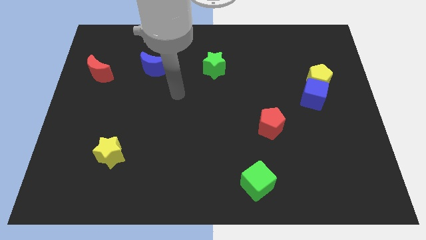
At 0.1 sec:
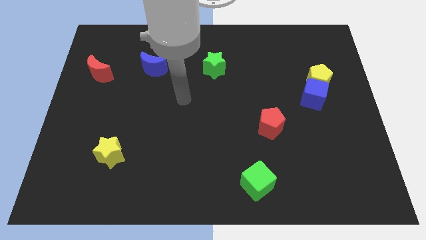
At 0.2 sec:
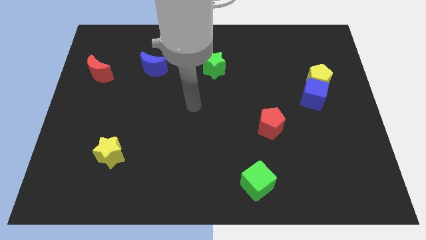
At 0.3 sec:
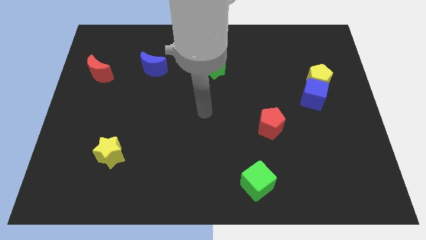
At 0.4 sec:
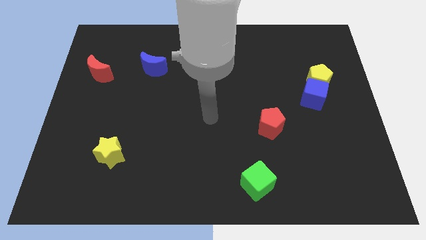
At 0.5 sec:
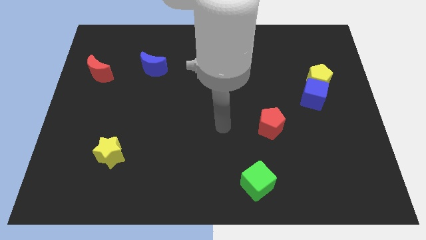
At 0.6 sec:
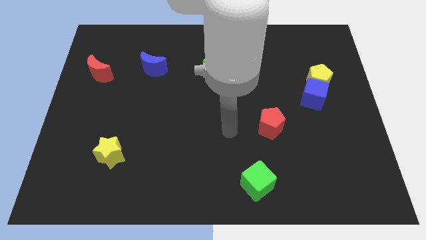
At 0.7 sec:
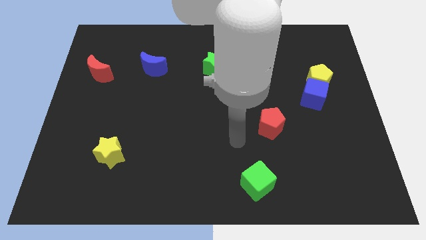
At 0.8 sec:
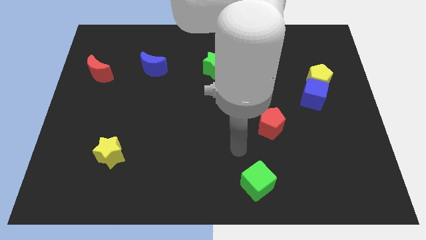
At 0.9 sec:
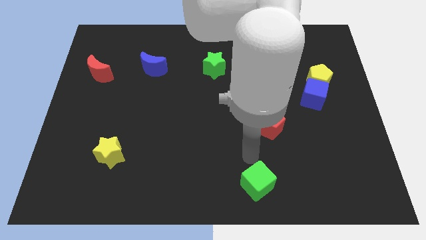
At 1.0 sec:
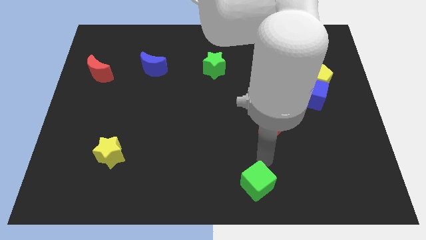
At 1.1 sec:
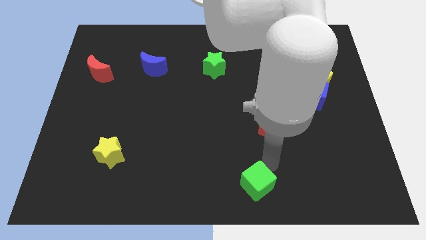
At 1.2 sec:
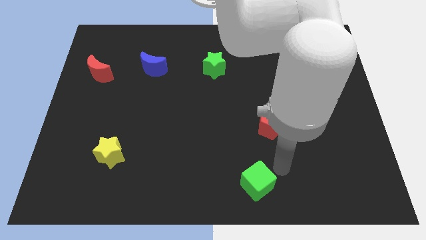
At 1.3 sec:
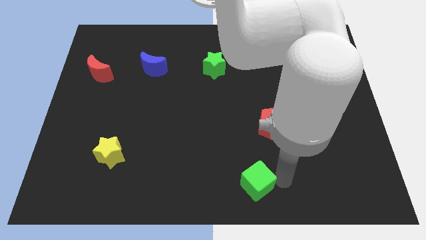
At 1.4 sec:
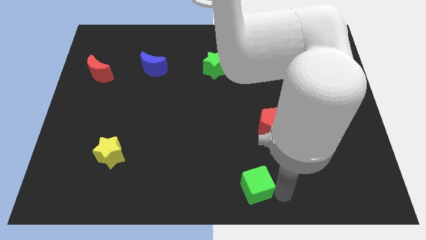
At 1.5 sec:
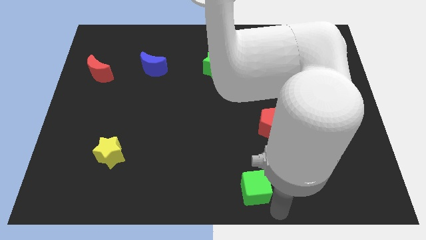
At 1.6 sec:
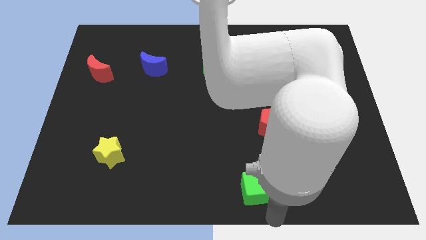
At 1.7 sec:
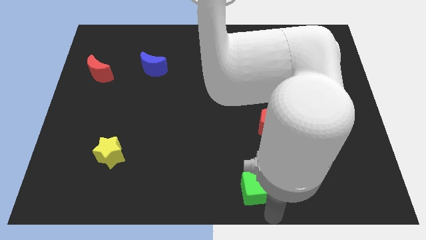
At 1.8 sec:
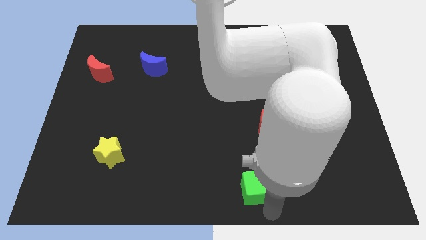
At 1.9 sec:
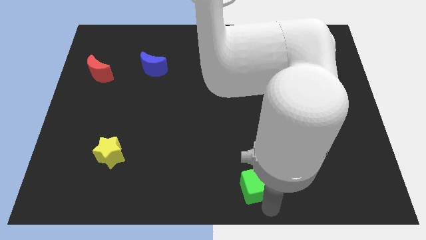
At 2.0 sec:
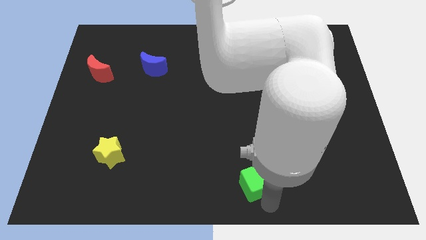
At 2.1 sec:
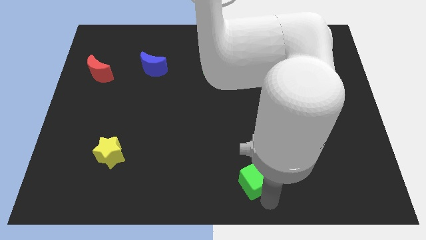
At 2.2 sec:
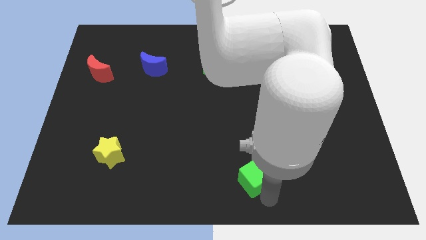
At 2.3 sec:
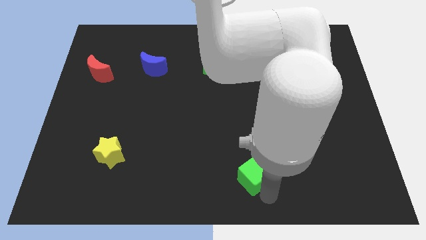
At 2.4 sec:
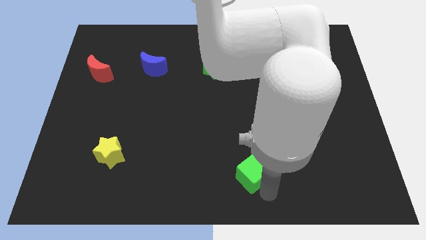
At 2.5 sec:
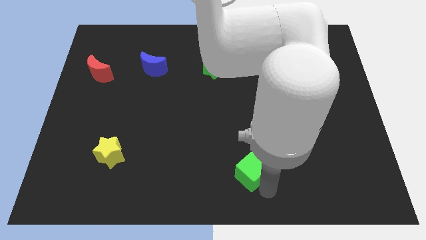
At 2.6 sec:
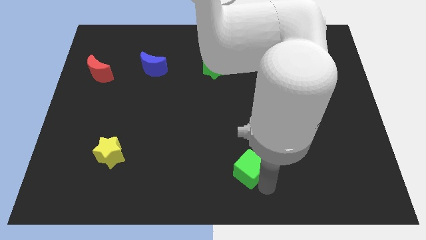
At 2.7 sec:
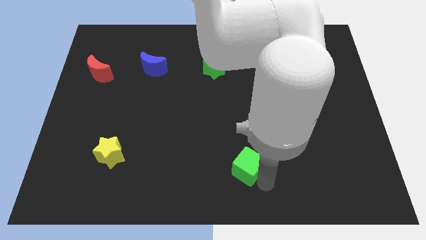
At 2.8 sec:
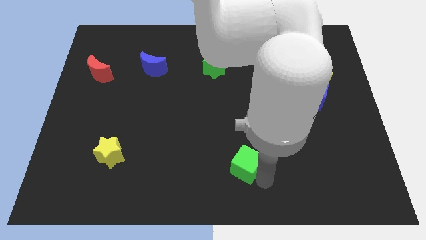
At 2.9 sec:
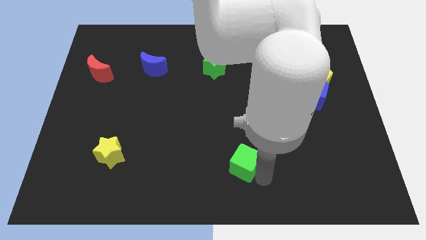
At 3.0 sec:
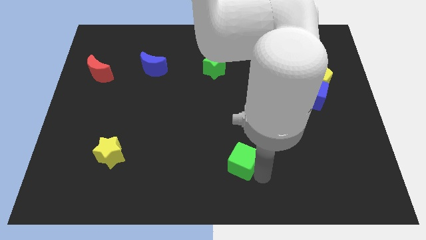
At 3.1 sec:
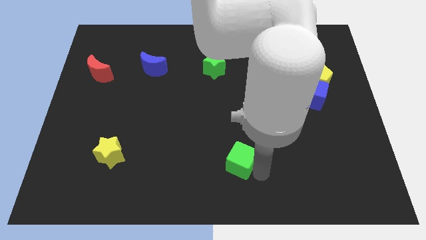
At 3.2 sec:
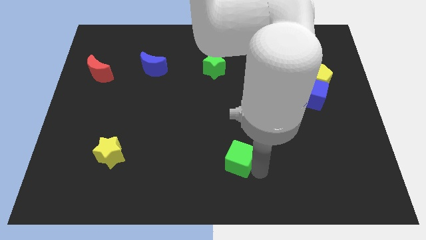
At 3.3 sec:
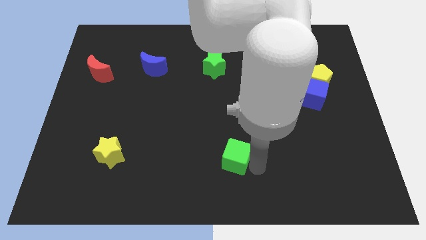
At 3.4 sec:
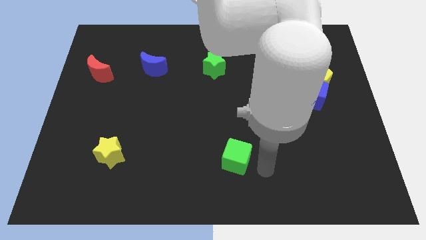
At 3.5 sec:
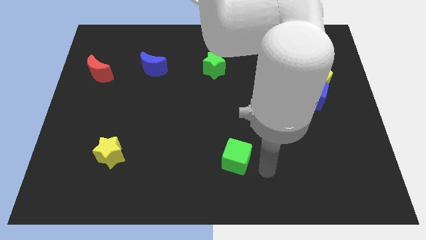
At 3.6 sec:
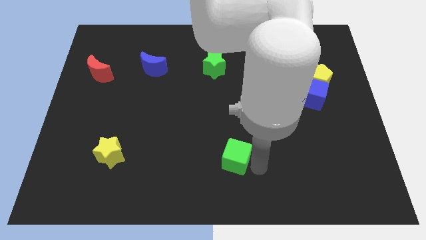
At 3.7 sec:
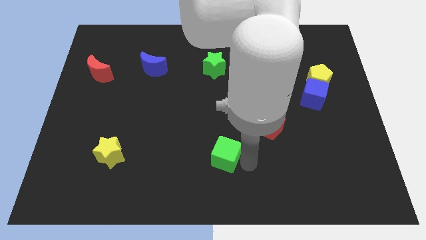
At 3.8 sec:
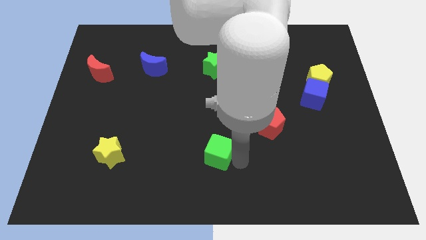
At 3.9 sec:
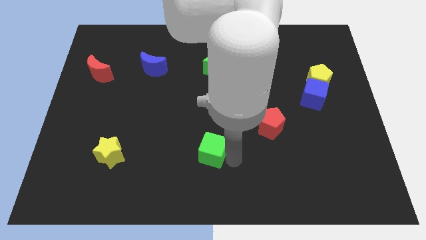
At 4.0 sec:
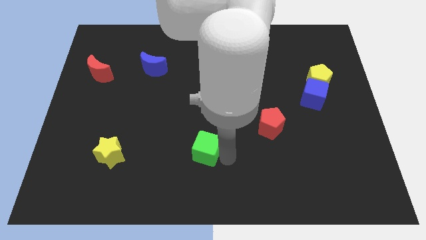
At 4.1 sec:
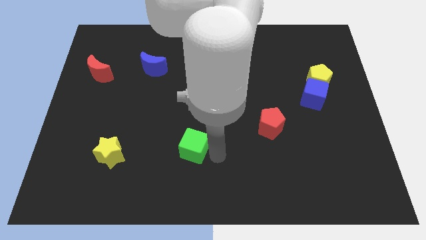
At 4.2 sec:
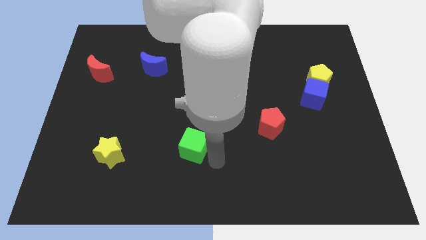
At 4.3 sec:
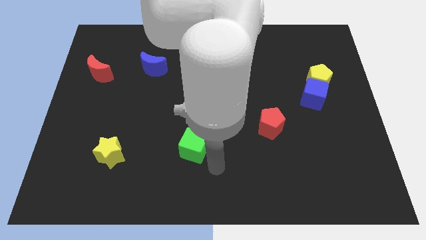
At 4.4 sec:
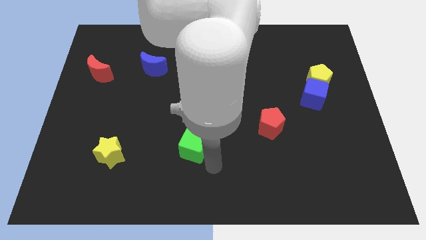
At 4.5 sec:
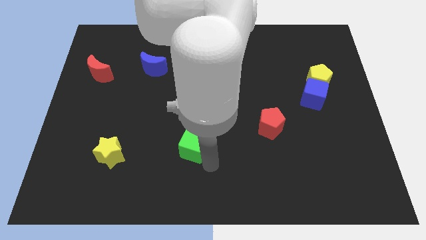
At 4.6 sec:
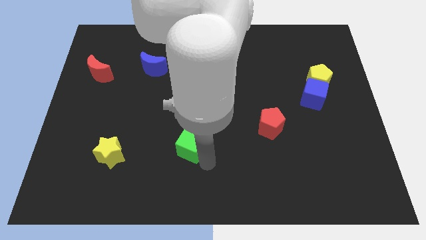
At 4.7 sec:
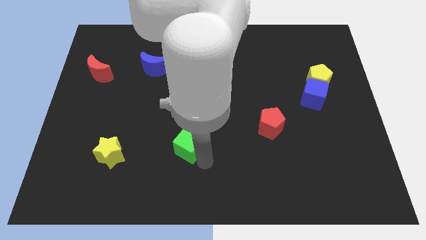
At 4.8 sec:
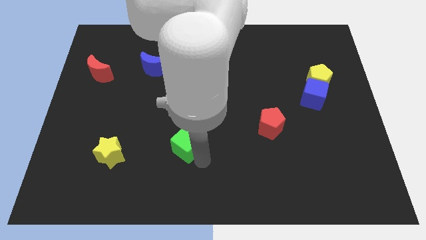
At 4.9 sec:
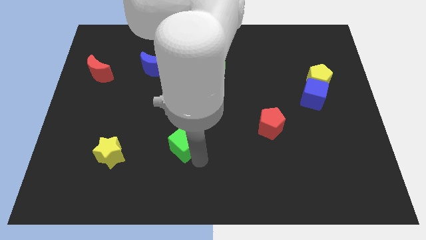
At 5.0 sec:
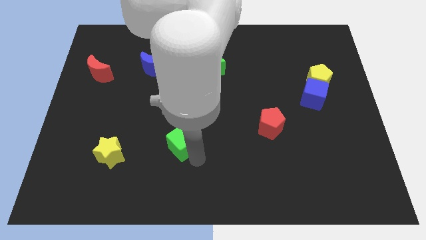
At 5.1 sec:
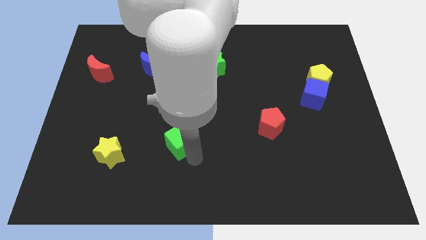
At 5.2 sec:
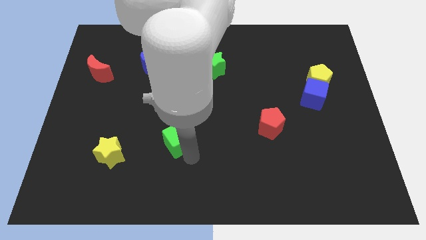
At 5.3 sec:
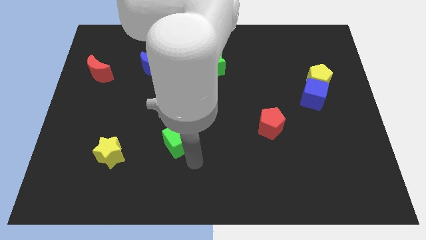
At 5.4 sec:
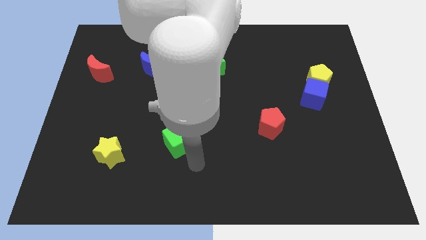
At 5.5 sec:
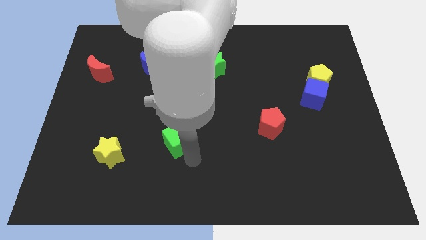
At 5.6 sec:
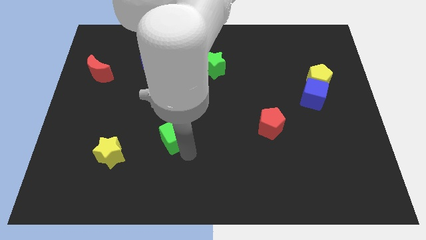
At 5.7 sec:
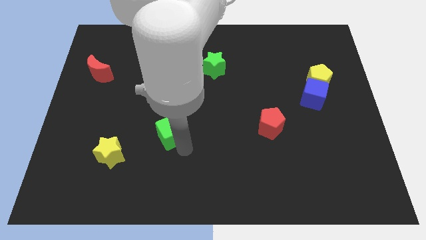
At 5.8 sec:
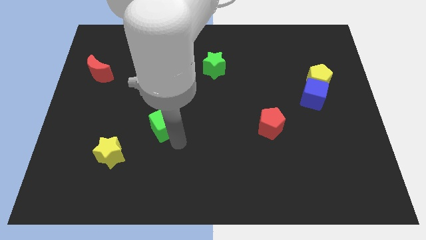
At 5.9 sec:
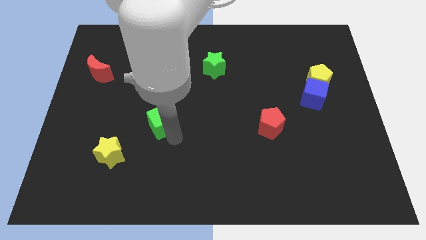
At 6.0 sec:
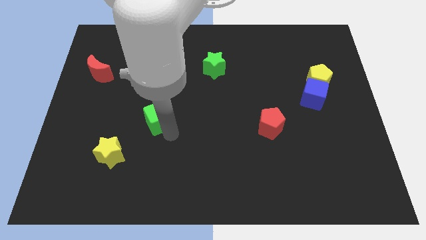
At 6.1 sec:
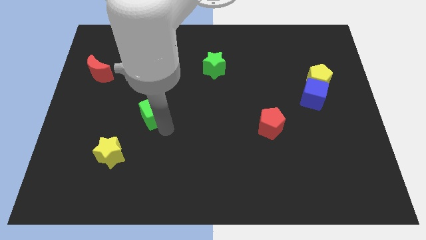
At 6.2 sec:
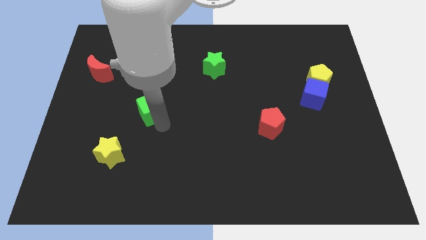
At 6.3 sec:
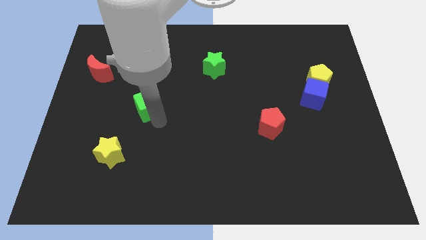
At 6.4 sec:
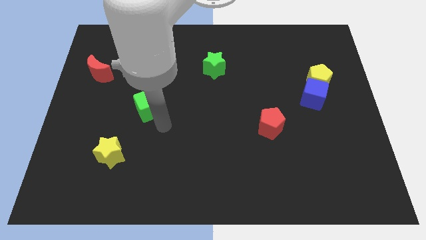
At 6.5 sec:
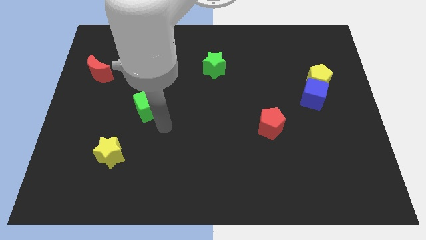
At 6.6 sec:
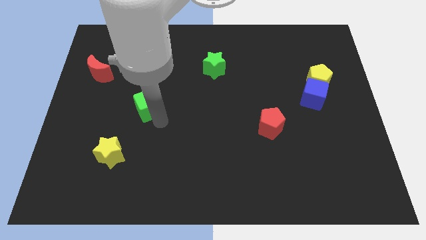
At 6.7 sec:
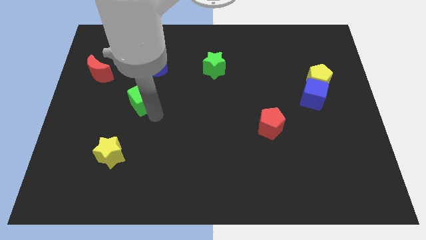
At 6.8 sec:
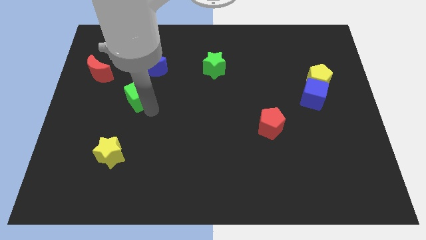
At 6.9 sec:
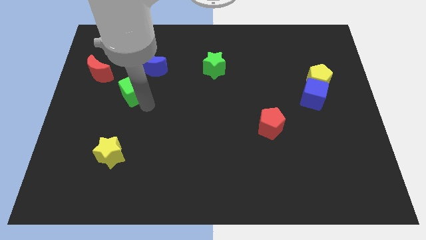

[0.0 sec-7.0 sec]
move the green cube to the bottom left of the blue moon
